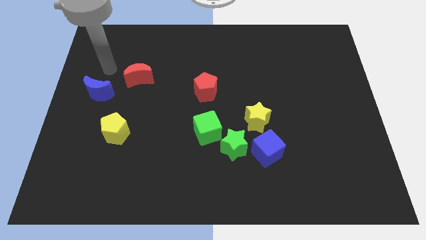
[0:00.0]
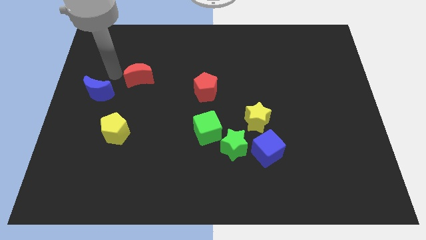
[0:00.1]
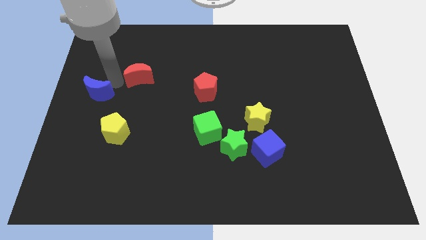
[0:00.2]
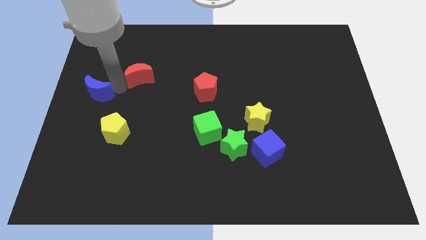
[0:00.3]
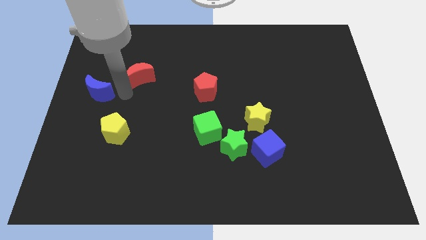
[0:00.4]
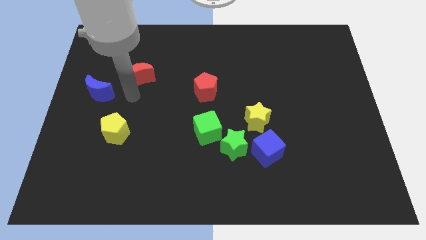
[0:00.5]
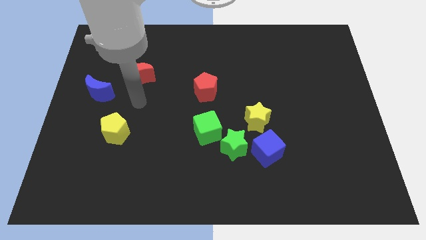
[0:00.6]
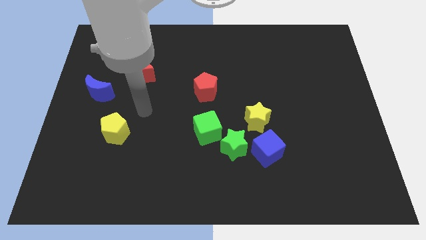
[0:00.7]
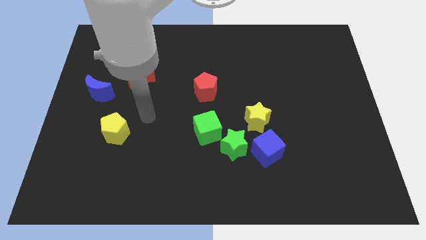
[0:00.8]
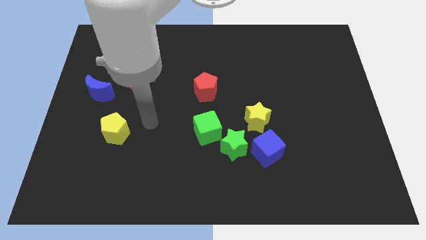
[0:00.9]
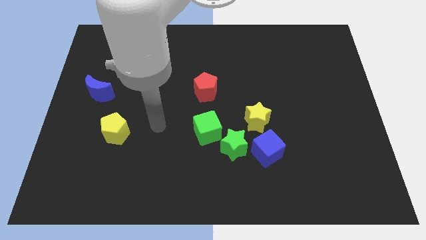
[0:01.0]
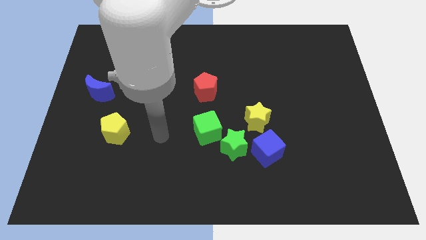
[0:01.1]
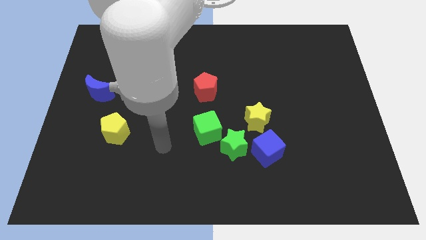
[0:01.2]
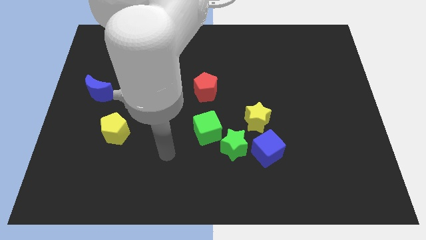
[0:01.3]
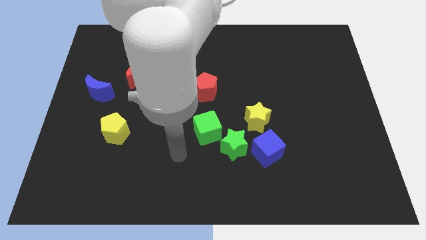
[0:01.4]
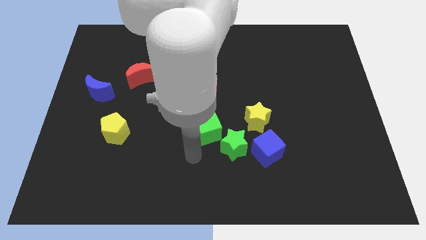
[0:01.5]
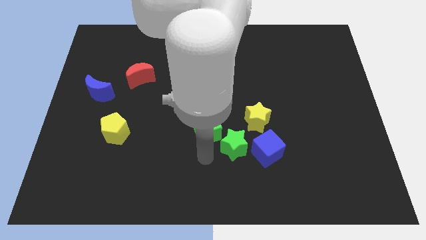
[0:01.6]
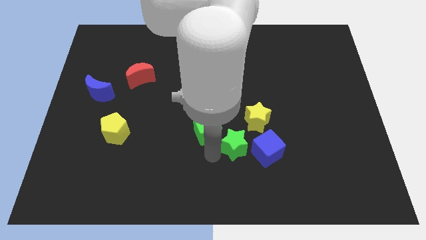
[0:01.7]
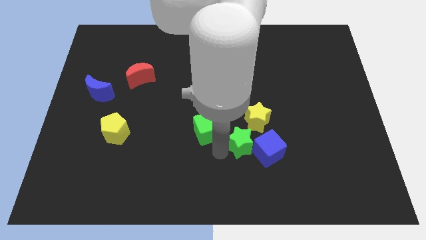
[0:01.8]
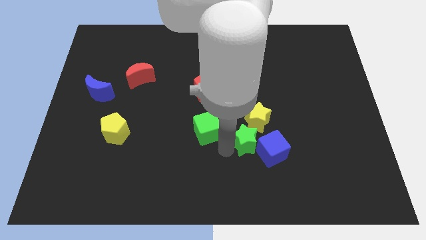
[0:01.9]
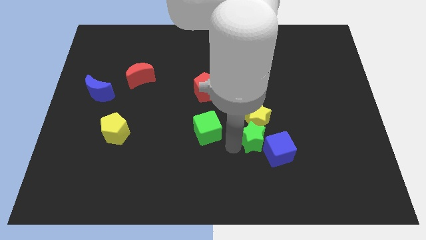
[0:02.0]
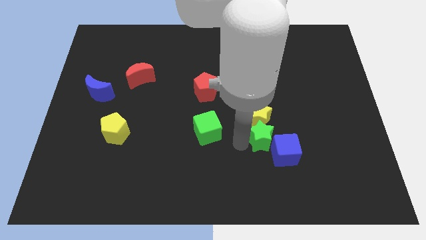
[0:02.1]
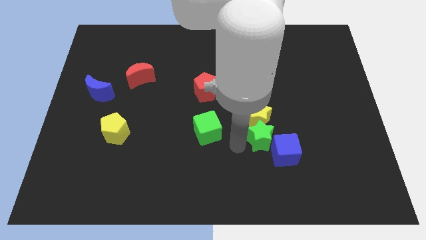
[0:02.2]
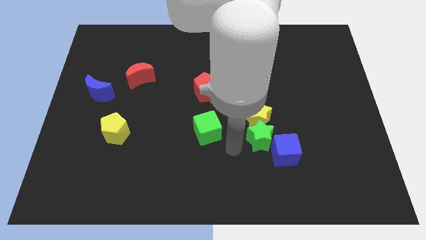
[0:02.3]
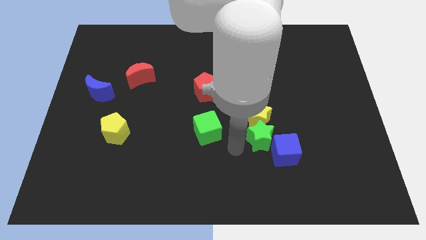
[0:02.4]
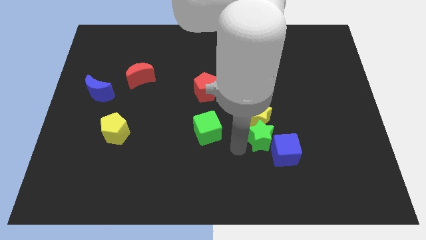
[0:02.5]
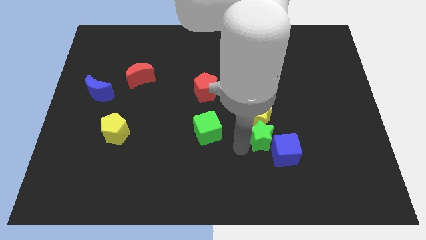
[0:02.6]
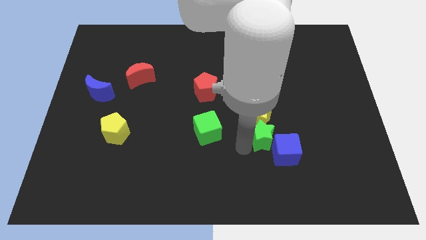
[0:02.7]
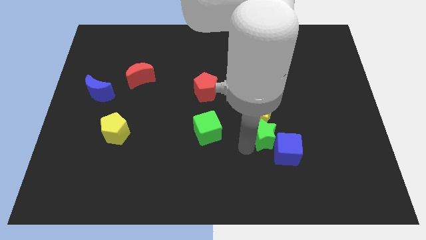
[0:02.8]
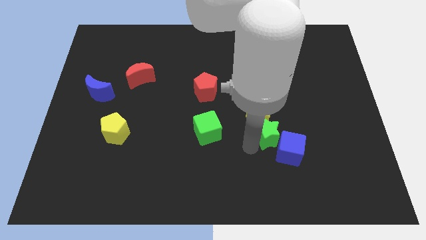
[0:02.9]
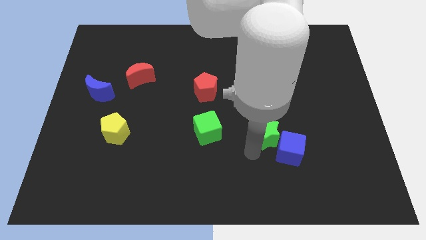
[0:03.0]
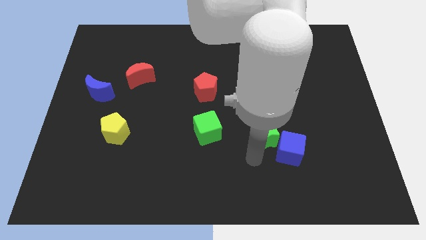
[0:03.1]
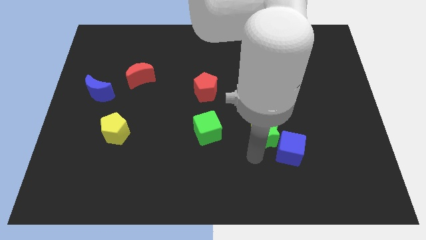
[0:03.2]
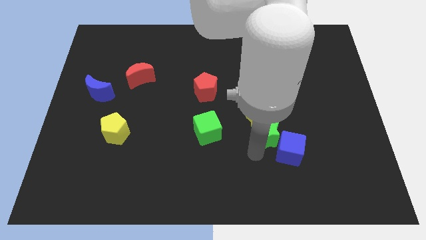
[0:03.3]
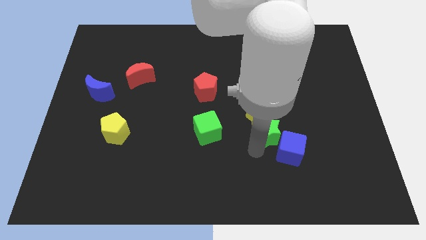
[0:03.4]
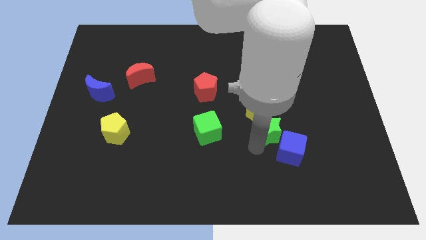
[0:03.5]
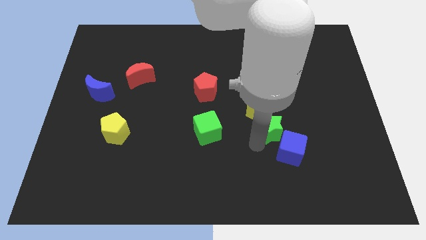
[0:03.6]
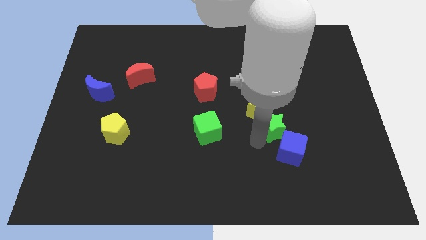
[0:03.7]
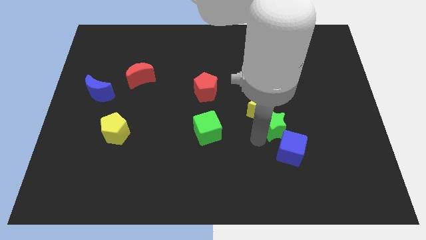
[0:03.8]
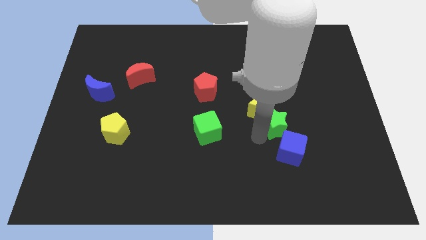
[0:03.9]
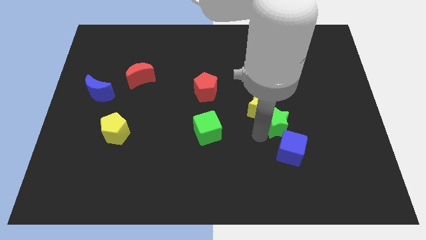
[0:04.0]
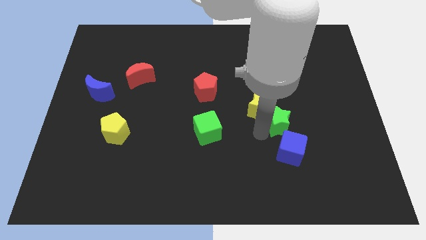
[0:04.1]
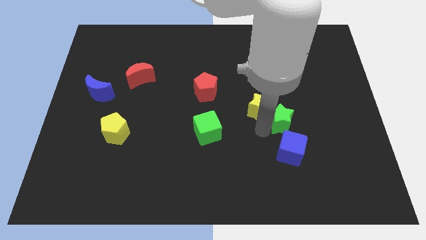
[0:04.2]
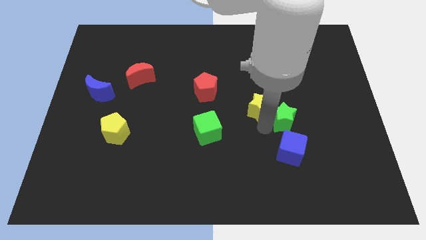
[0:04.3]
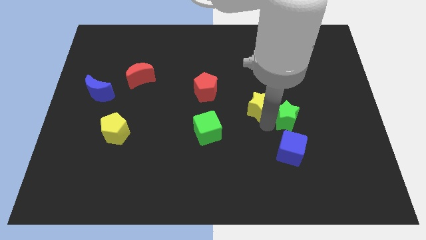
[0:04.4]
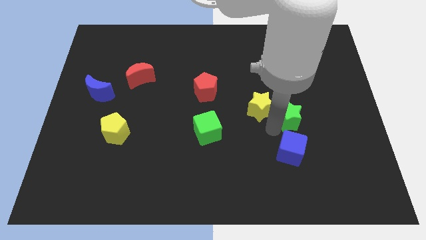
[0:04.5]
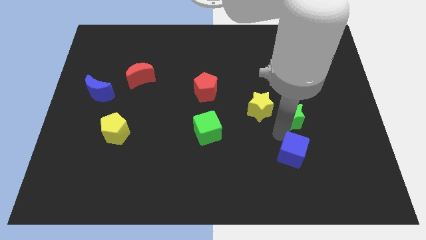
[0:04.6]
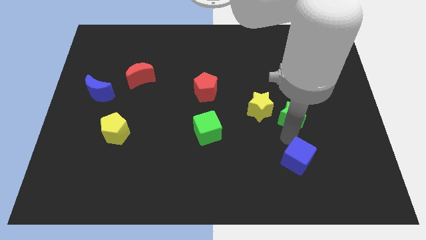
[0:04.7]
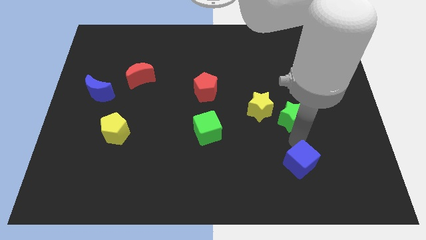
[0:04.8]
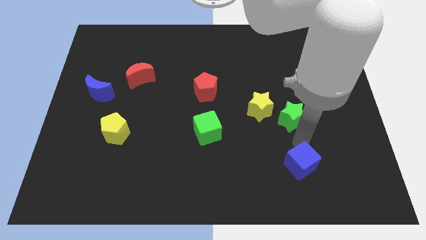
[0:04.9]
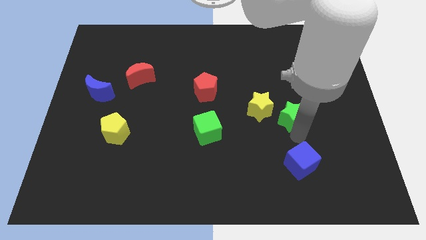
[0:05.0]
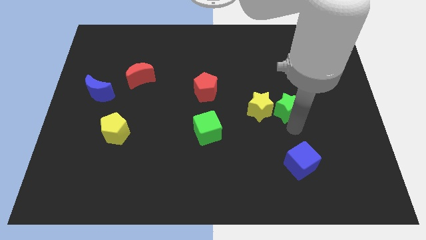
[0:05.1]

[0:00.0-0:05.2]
slide the green star to the top right of the yellow star

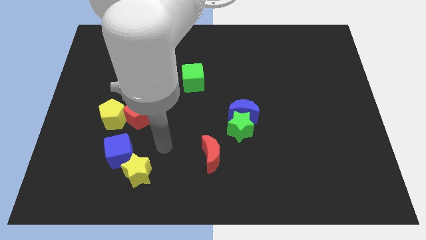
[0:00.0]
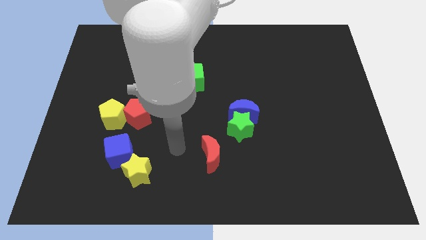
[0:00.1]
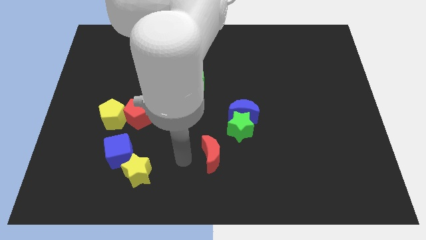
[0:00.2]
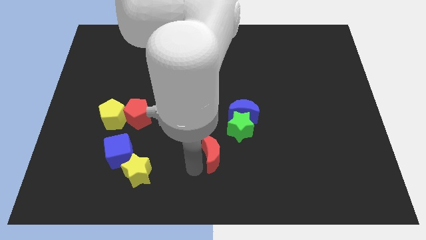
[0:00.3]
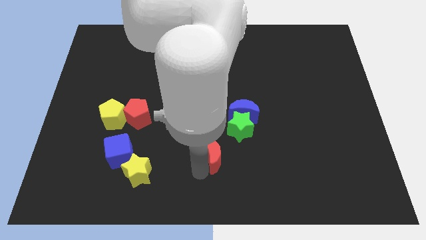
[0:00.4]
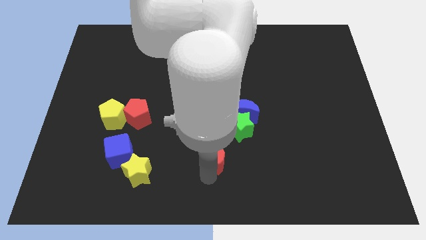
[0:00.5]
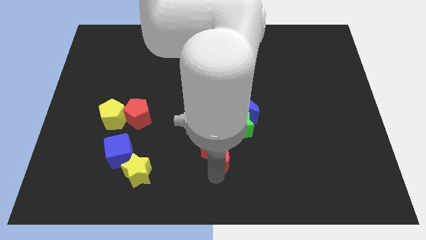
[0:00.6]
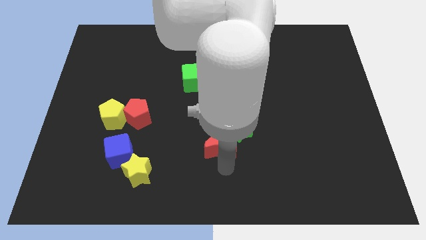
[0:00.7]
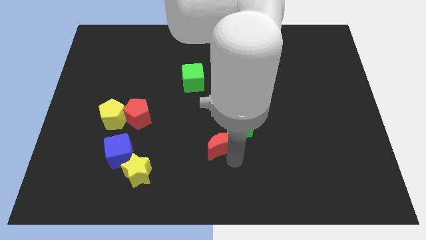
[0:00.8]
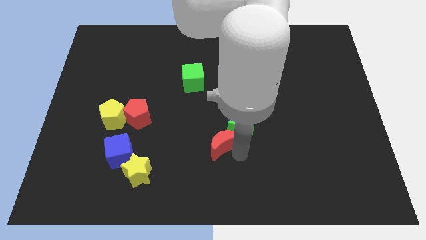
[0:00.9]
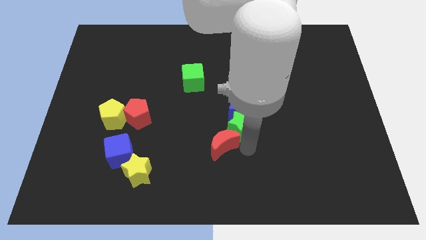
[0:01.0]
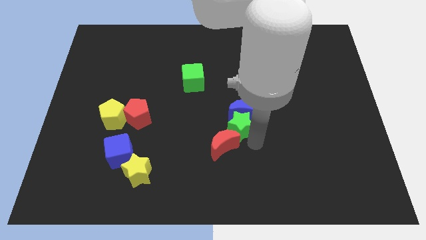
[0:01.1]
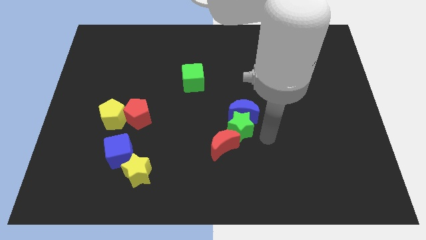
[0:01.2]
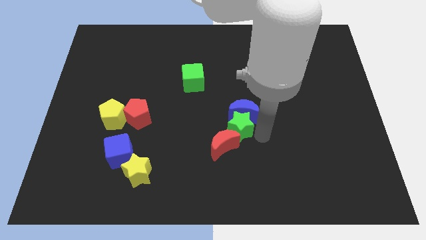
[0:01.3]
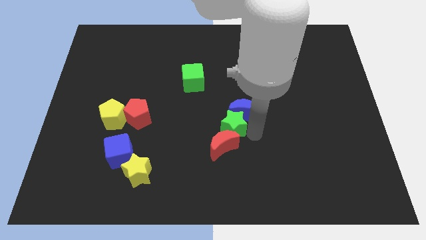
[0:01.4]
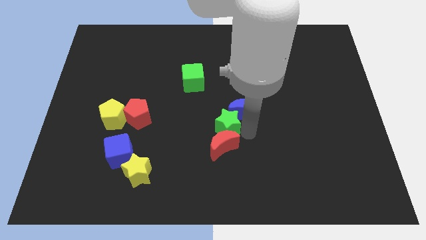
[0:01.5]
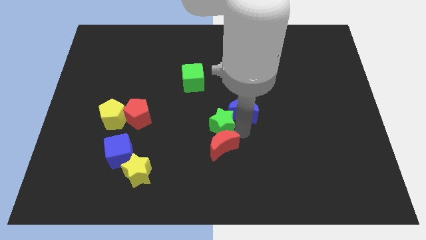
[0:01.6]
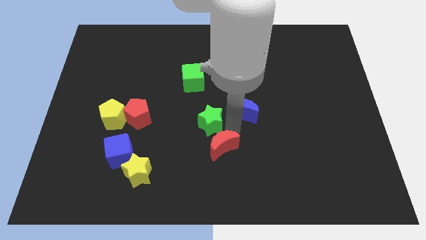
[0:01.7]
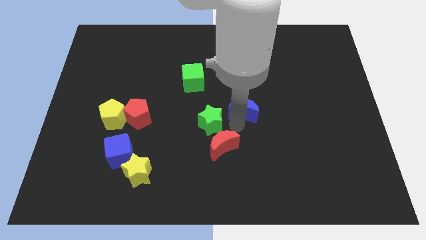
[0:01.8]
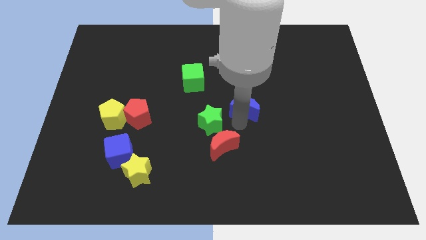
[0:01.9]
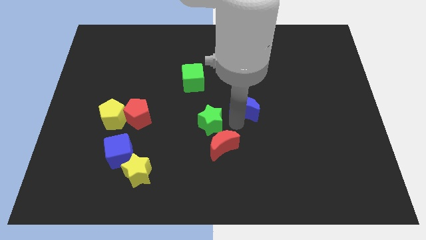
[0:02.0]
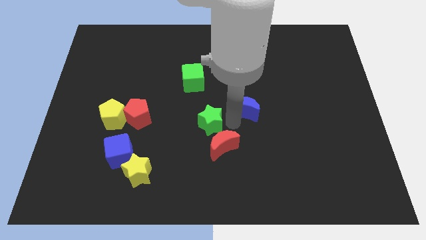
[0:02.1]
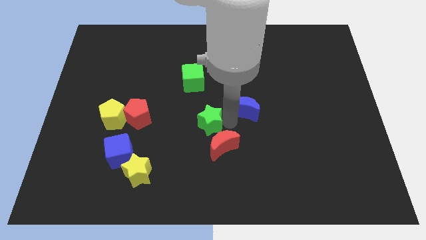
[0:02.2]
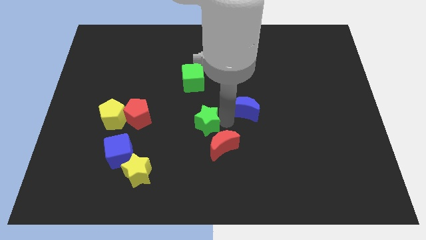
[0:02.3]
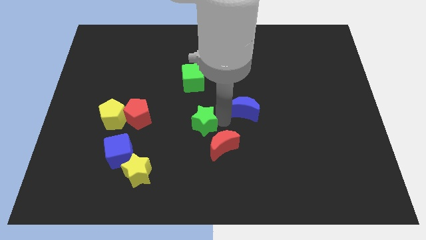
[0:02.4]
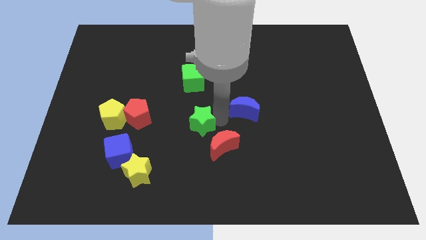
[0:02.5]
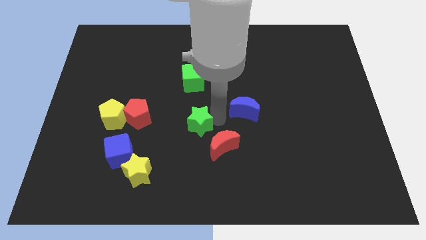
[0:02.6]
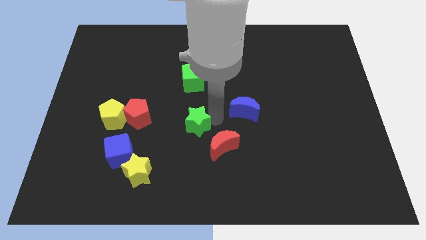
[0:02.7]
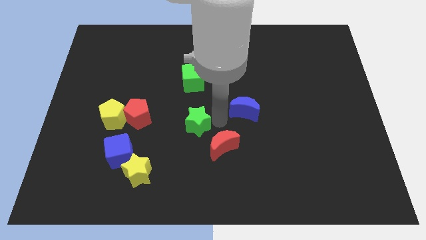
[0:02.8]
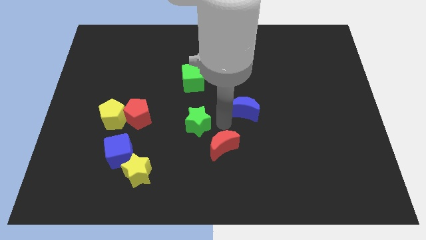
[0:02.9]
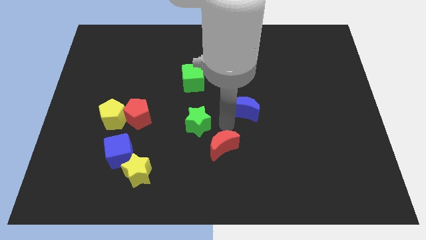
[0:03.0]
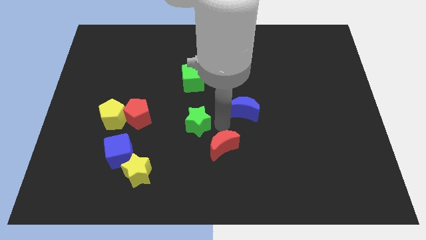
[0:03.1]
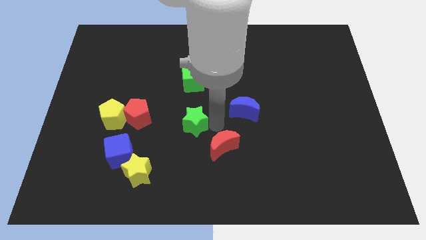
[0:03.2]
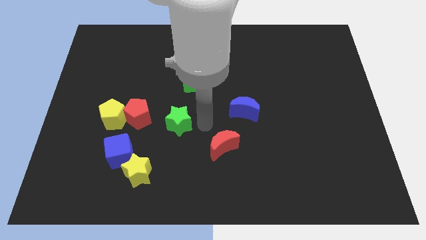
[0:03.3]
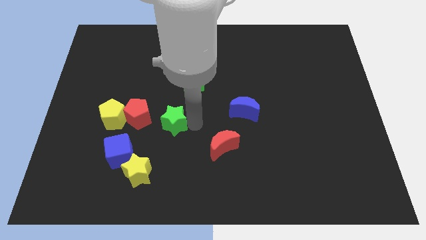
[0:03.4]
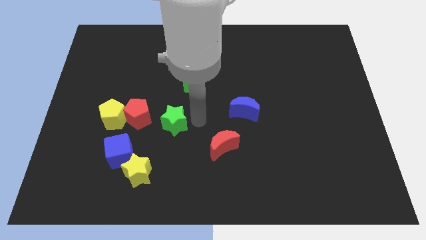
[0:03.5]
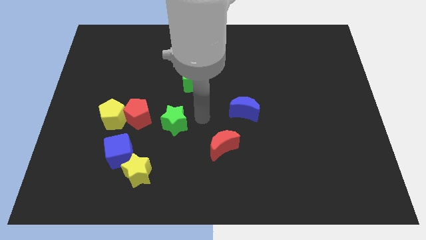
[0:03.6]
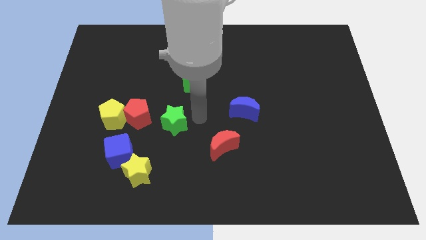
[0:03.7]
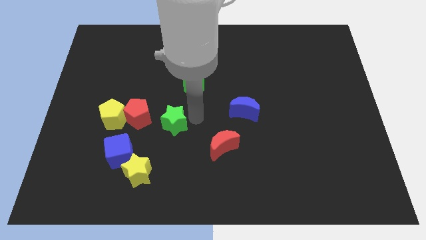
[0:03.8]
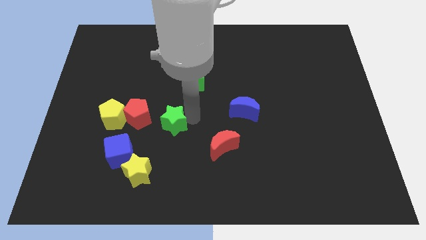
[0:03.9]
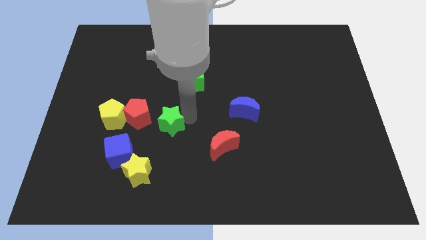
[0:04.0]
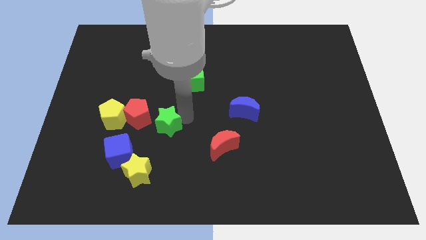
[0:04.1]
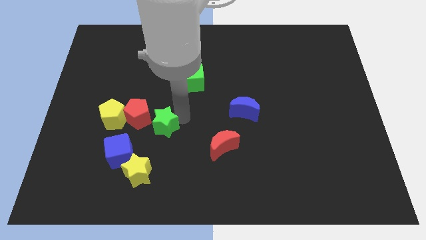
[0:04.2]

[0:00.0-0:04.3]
slide the green star to the top of the yellow star
